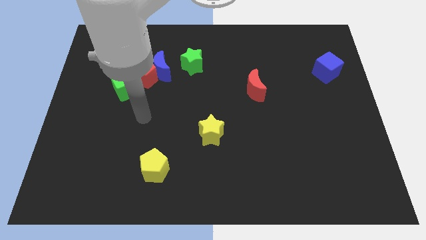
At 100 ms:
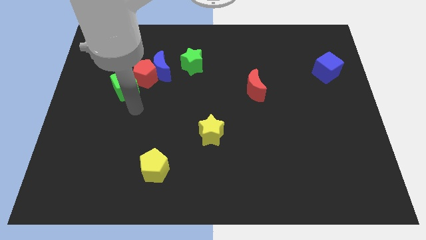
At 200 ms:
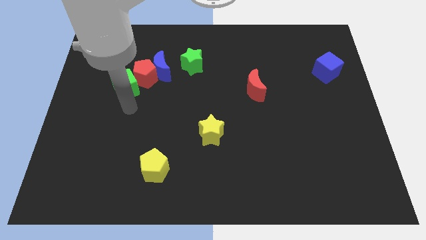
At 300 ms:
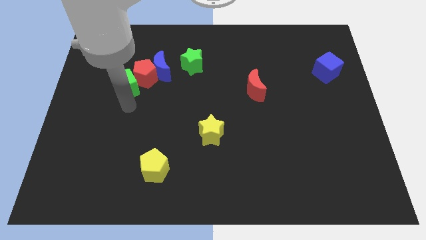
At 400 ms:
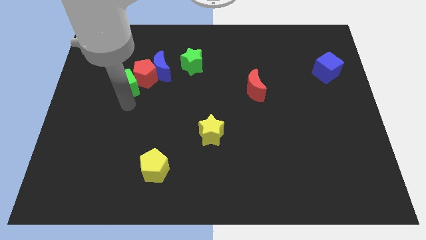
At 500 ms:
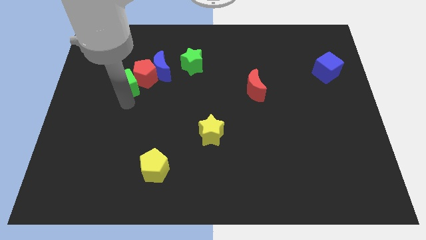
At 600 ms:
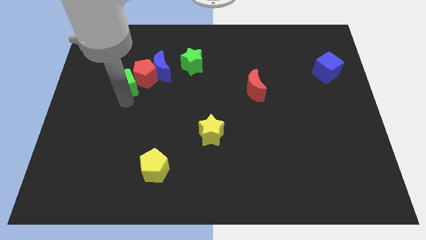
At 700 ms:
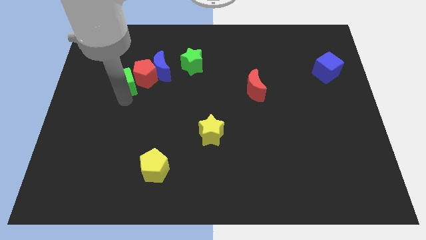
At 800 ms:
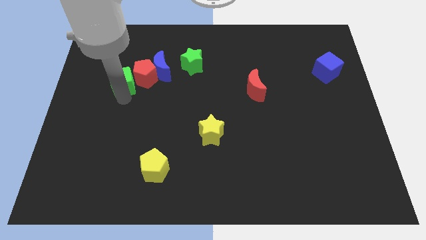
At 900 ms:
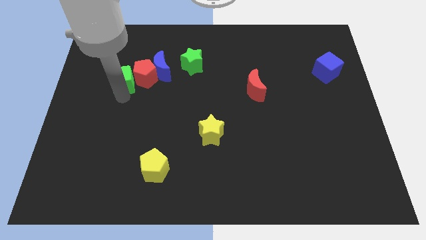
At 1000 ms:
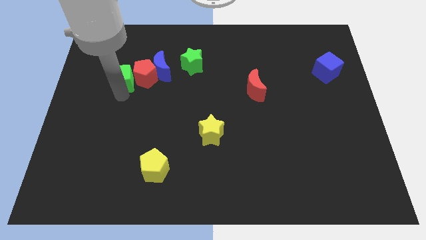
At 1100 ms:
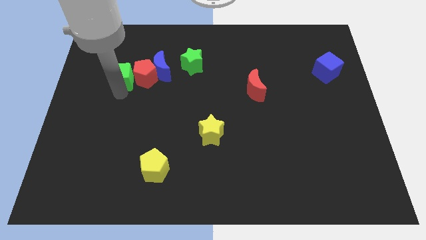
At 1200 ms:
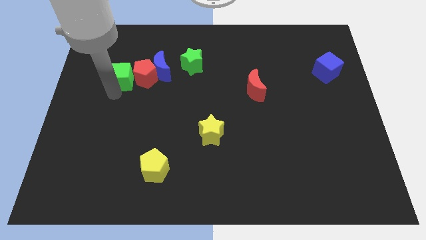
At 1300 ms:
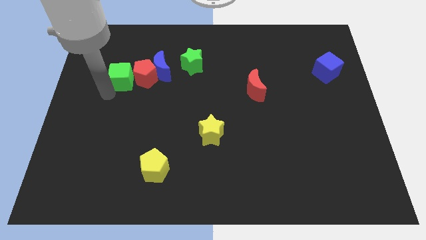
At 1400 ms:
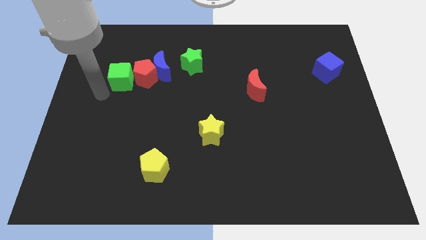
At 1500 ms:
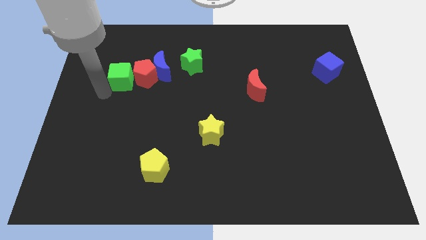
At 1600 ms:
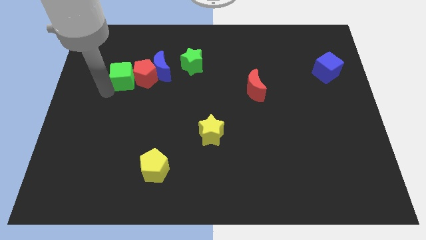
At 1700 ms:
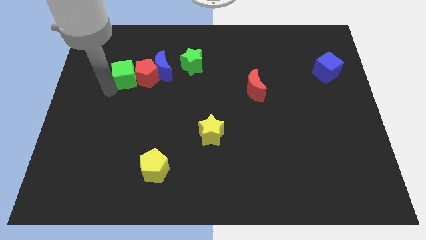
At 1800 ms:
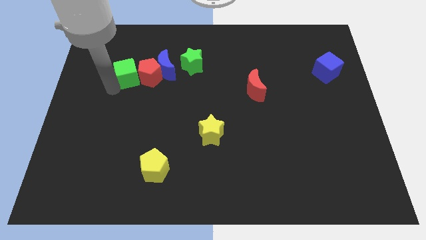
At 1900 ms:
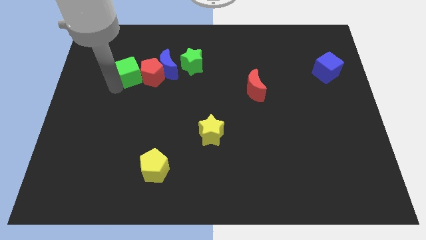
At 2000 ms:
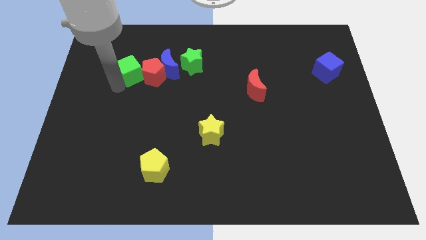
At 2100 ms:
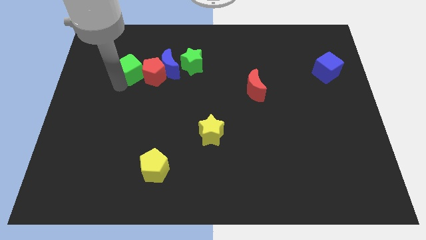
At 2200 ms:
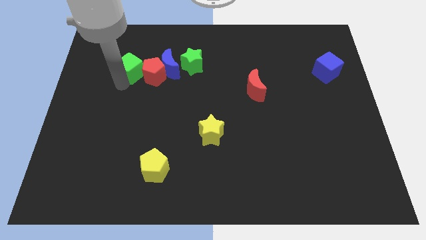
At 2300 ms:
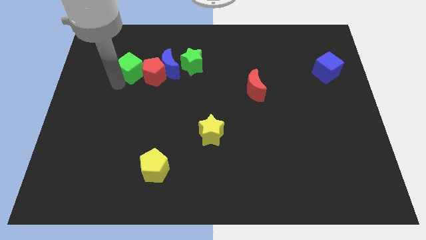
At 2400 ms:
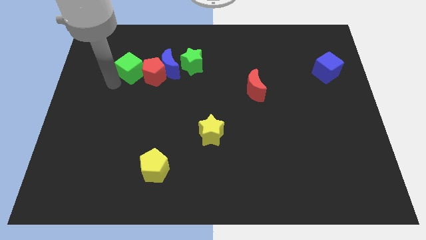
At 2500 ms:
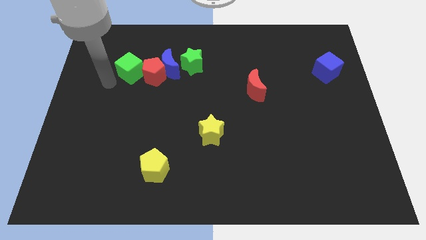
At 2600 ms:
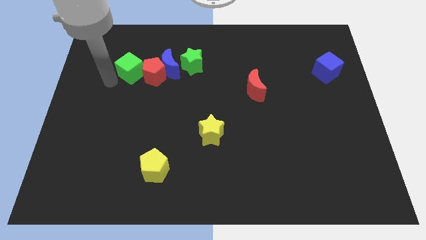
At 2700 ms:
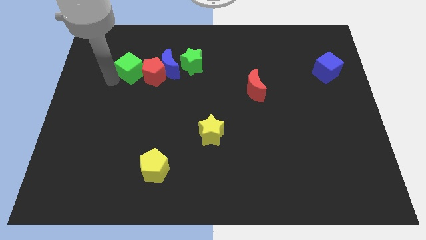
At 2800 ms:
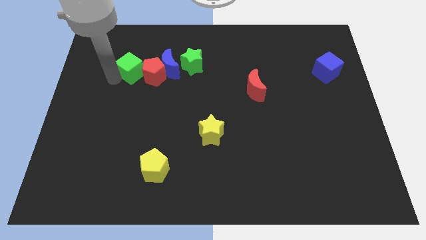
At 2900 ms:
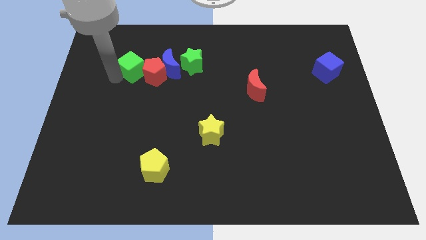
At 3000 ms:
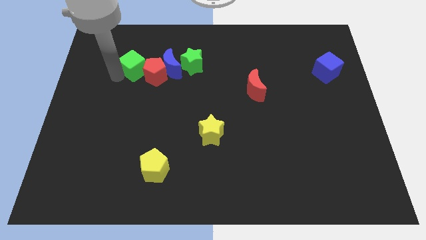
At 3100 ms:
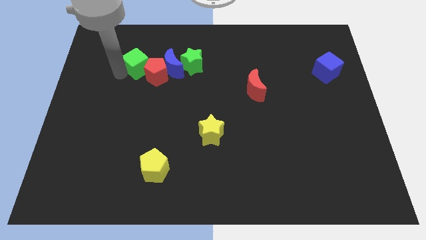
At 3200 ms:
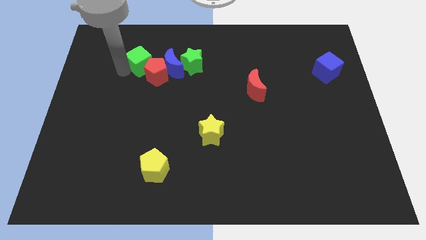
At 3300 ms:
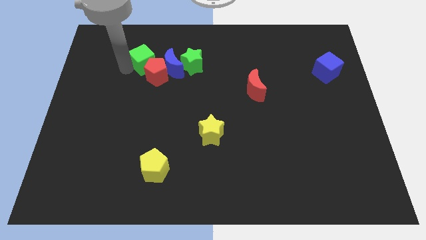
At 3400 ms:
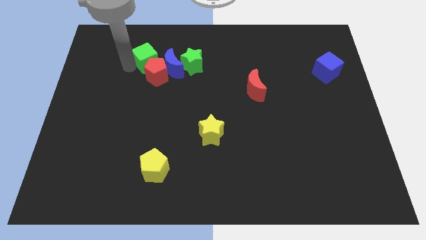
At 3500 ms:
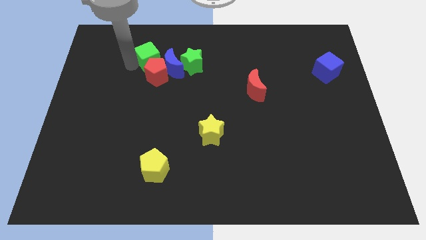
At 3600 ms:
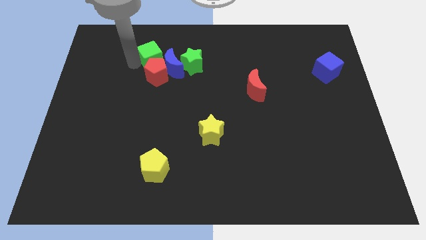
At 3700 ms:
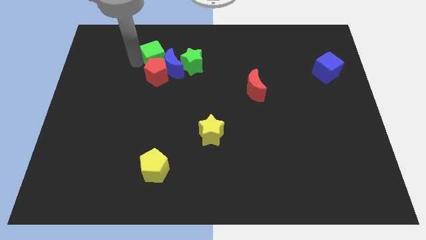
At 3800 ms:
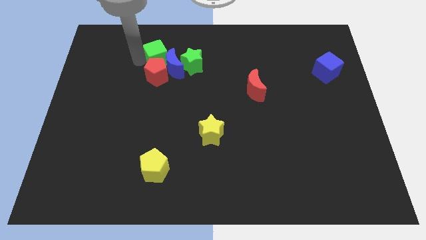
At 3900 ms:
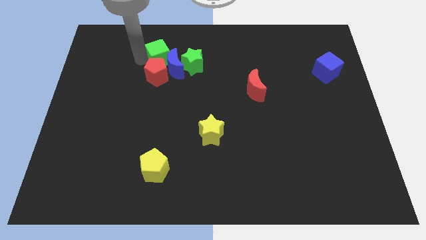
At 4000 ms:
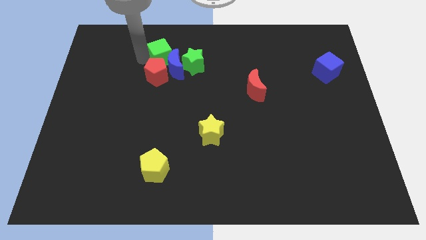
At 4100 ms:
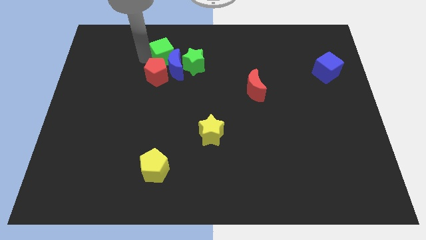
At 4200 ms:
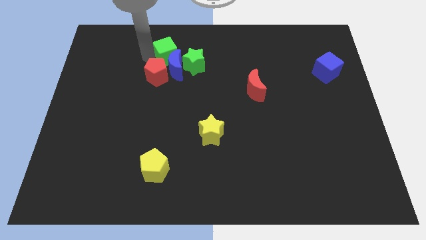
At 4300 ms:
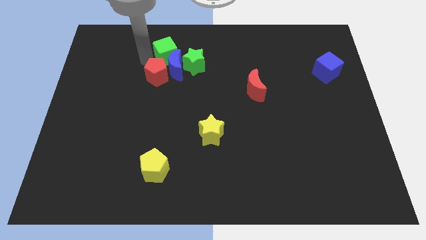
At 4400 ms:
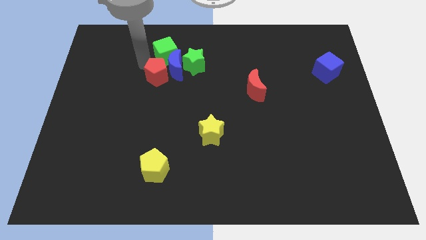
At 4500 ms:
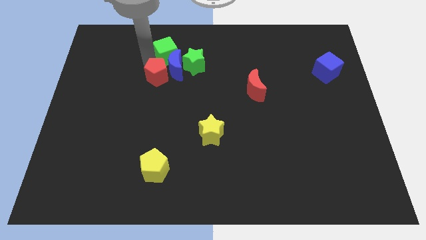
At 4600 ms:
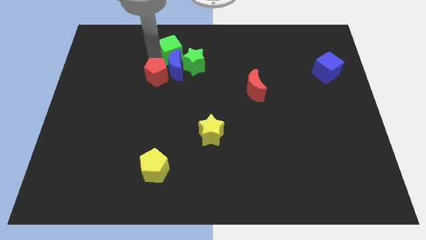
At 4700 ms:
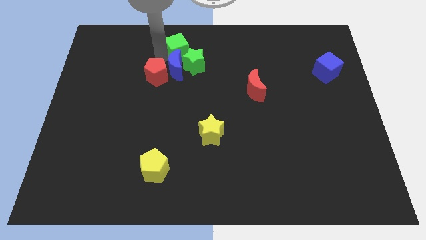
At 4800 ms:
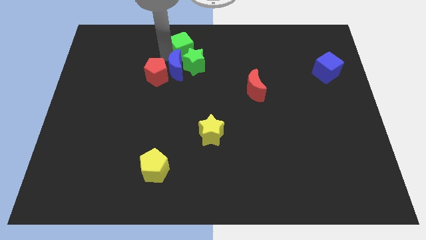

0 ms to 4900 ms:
slide the green cube to the towards your base

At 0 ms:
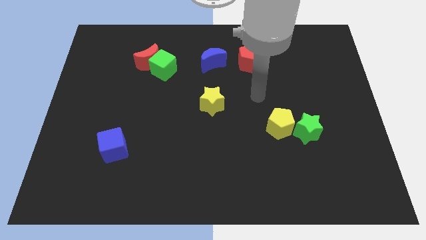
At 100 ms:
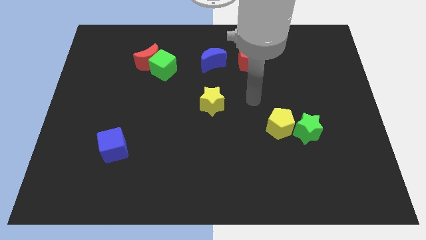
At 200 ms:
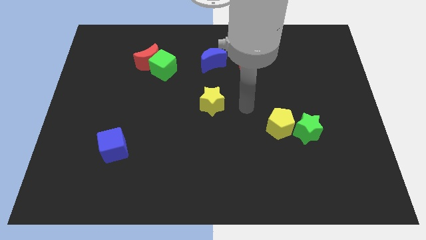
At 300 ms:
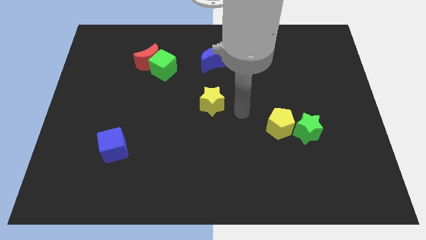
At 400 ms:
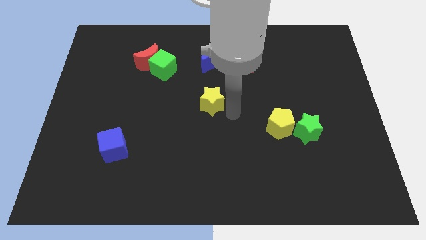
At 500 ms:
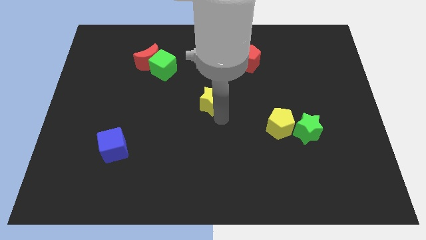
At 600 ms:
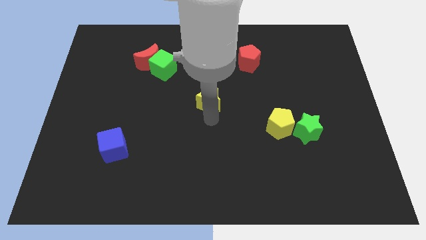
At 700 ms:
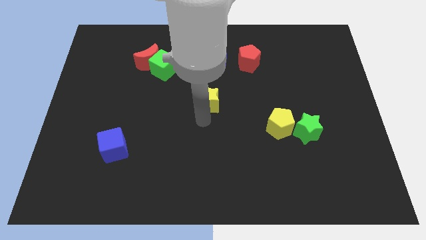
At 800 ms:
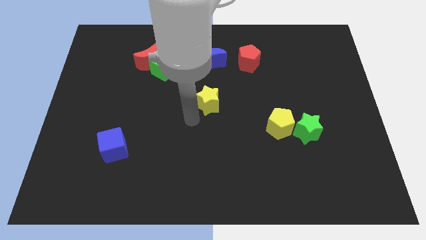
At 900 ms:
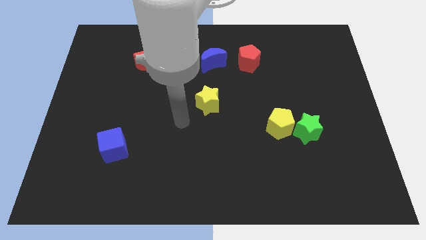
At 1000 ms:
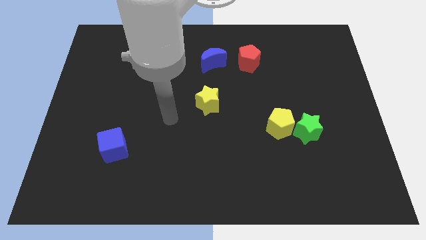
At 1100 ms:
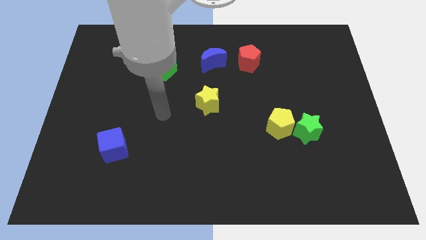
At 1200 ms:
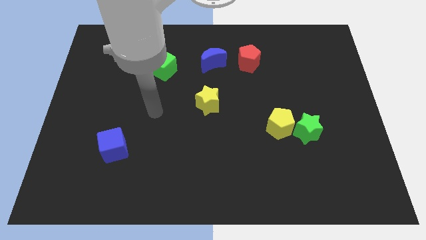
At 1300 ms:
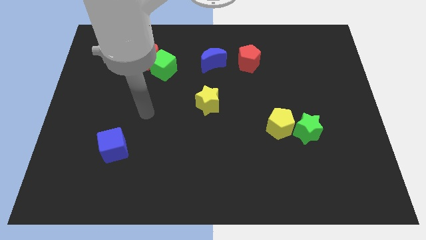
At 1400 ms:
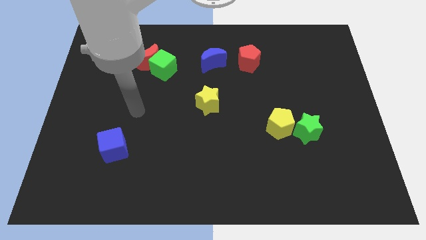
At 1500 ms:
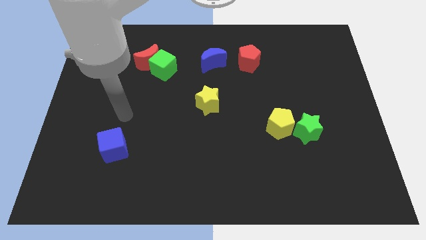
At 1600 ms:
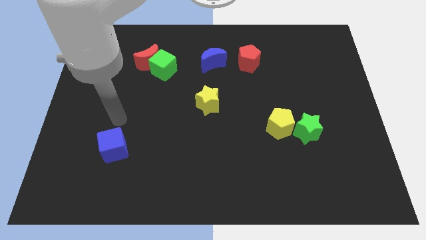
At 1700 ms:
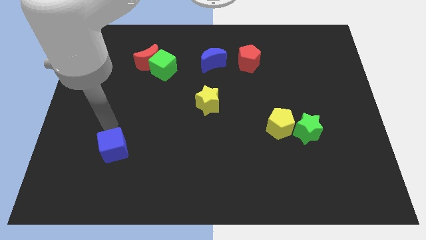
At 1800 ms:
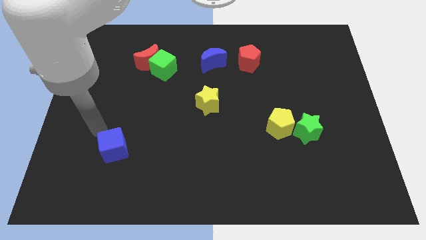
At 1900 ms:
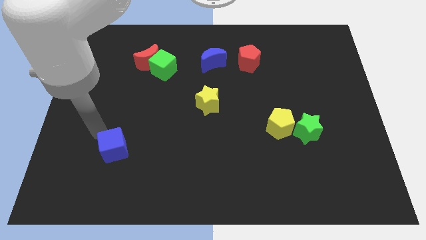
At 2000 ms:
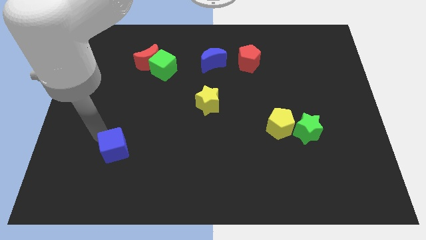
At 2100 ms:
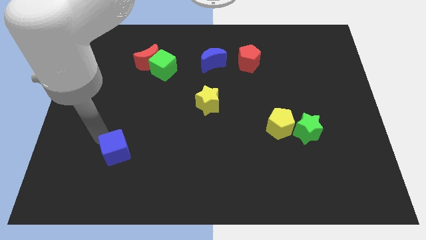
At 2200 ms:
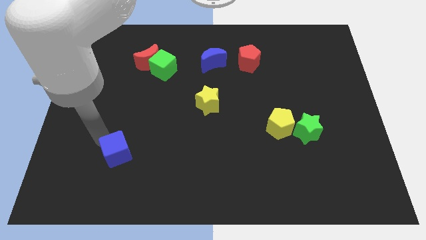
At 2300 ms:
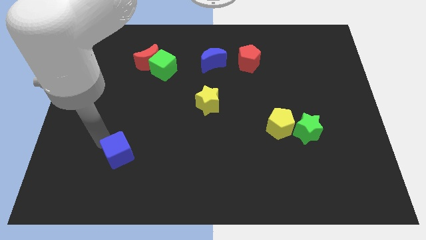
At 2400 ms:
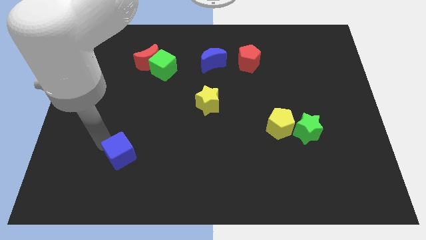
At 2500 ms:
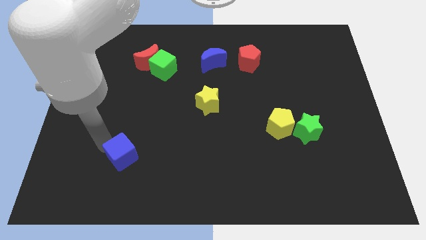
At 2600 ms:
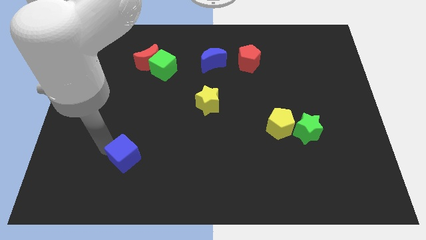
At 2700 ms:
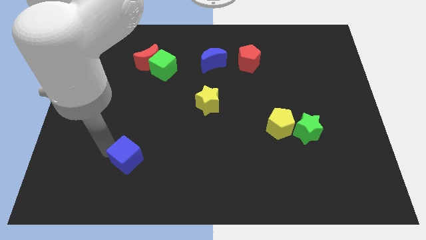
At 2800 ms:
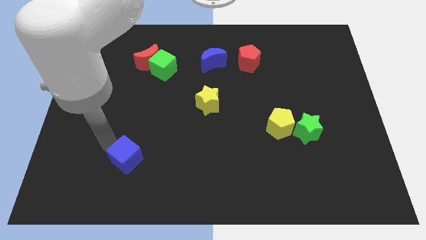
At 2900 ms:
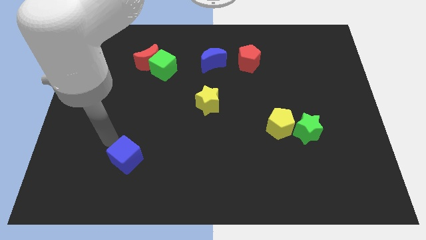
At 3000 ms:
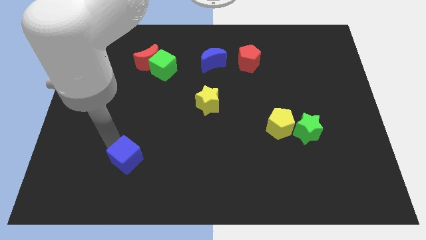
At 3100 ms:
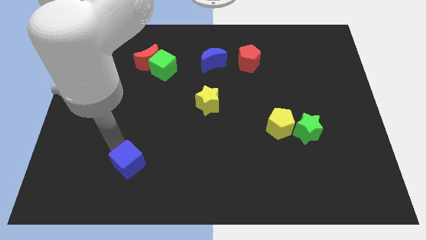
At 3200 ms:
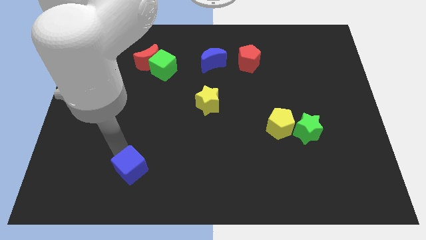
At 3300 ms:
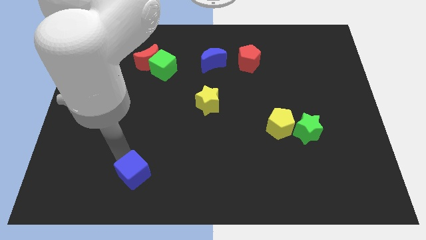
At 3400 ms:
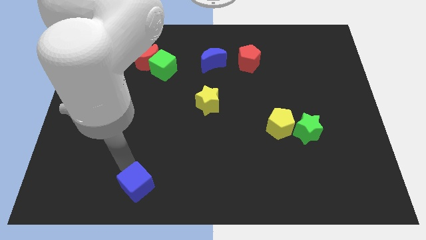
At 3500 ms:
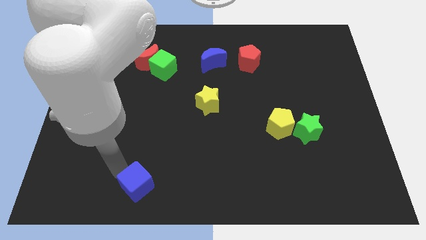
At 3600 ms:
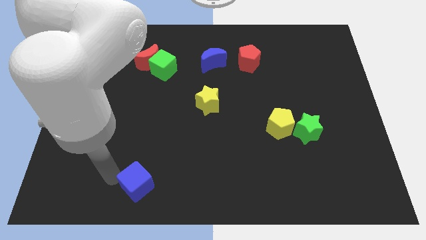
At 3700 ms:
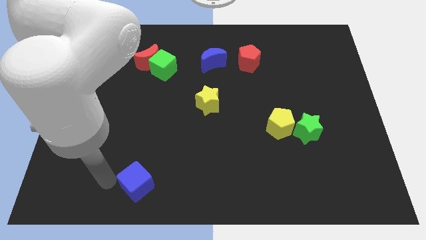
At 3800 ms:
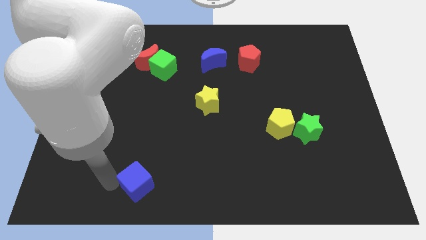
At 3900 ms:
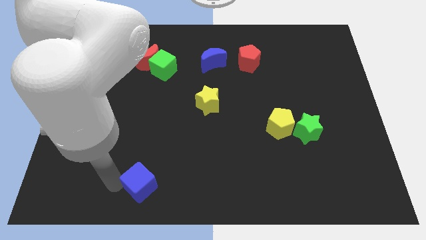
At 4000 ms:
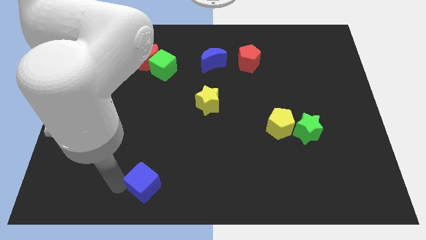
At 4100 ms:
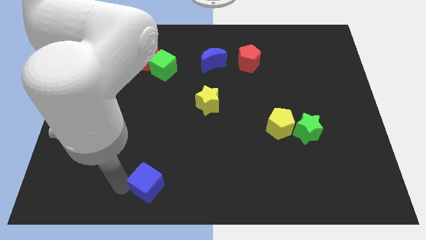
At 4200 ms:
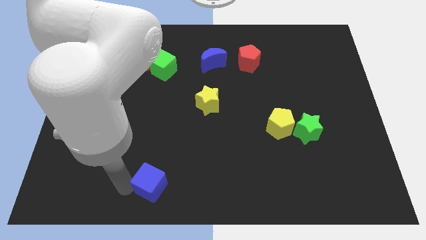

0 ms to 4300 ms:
slide the blue cube to the bottom
